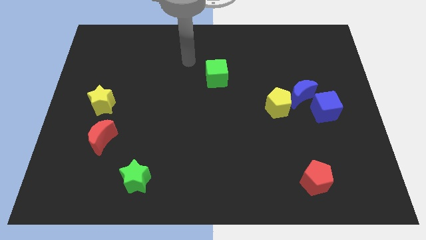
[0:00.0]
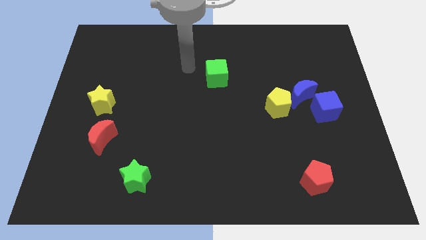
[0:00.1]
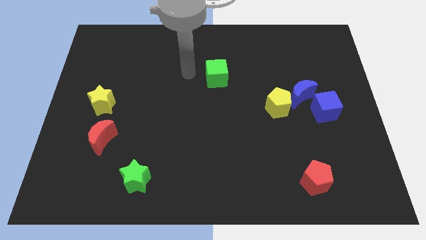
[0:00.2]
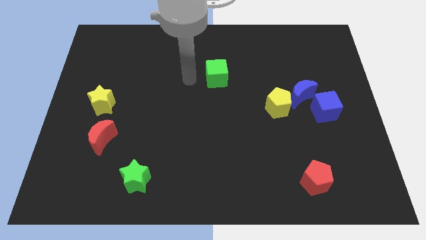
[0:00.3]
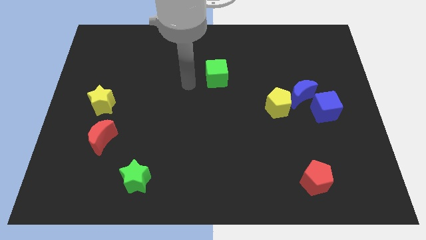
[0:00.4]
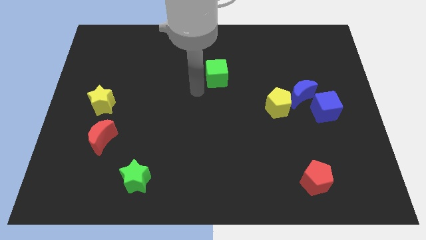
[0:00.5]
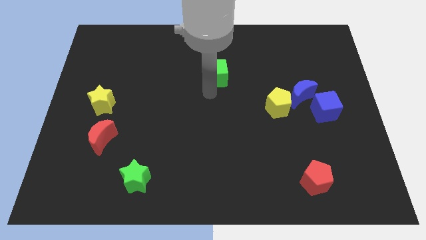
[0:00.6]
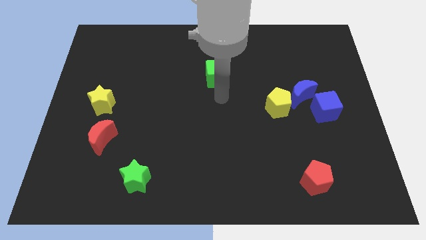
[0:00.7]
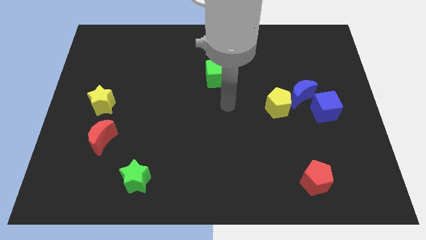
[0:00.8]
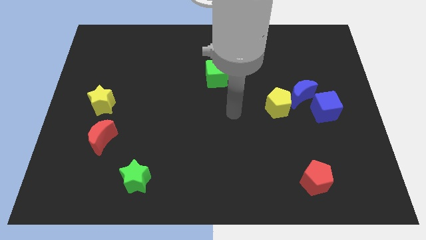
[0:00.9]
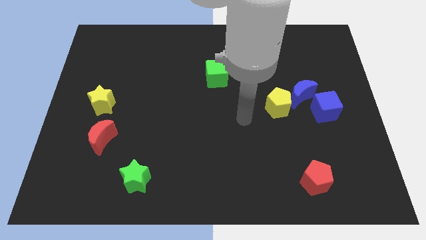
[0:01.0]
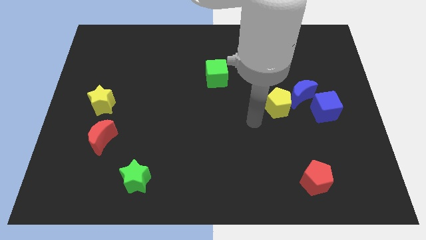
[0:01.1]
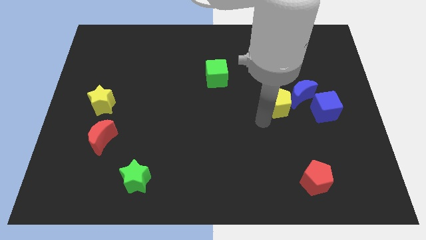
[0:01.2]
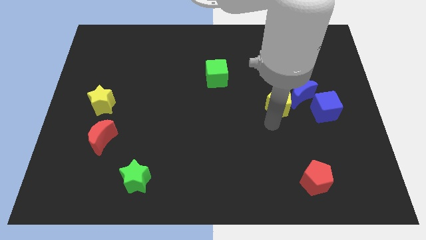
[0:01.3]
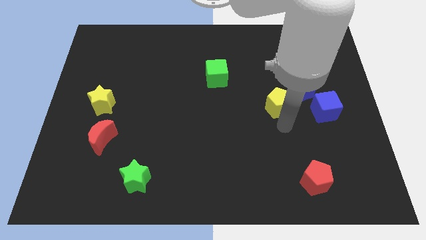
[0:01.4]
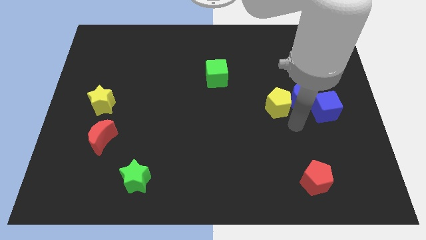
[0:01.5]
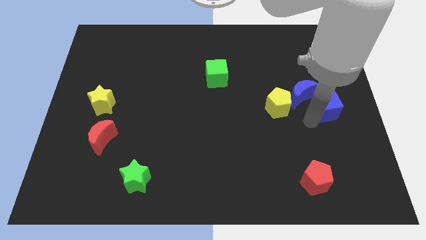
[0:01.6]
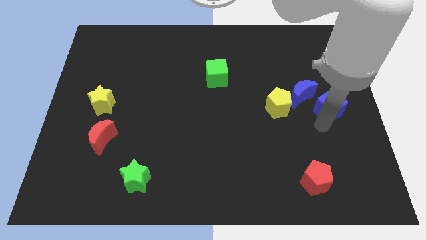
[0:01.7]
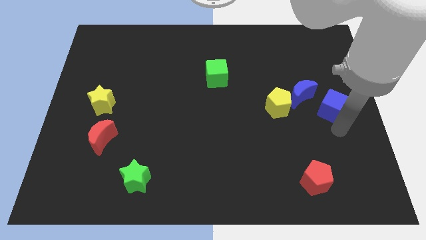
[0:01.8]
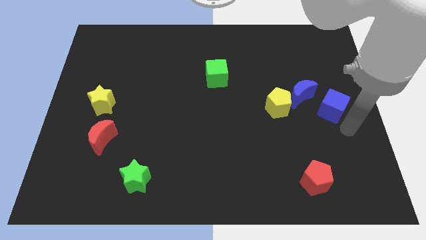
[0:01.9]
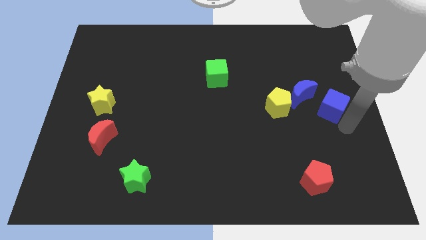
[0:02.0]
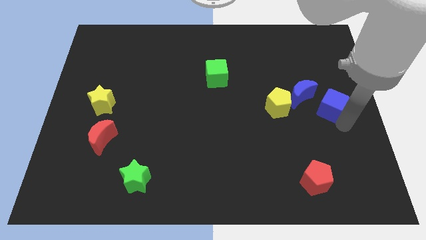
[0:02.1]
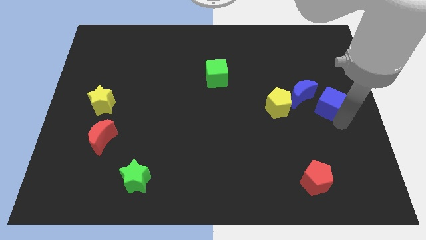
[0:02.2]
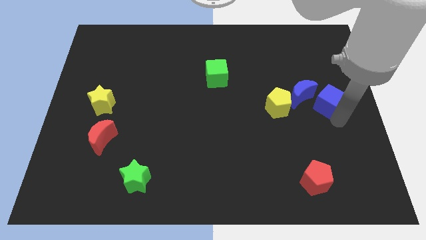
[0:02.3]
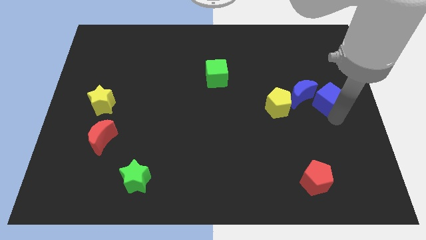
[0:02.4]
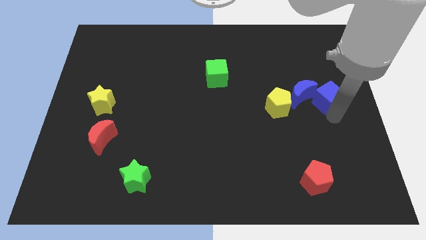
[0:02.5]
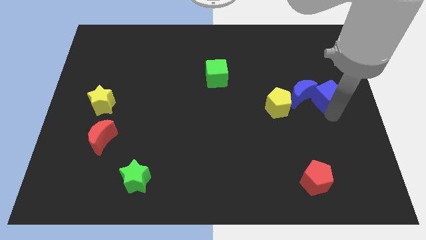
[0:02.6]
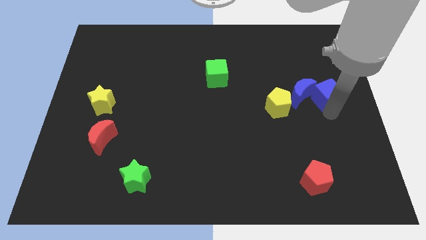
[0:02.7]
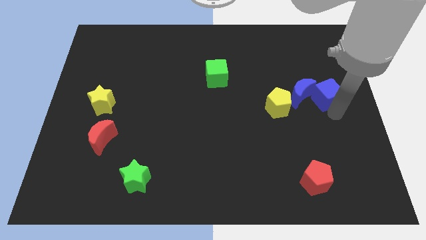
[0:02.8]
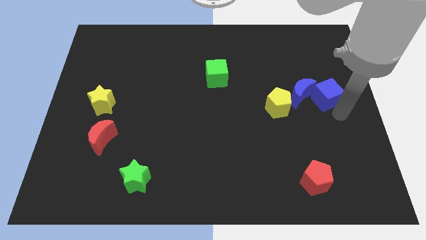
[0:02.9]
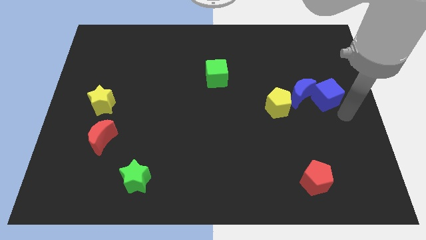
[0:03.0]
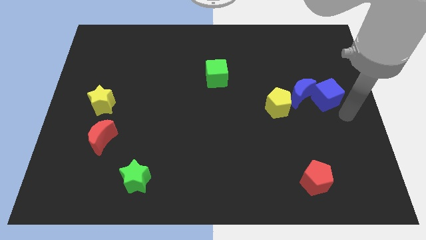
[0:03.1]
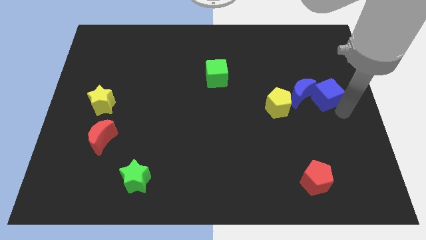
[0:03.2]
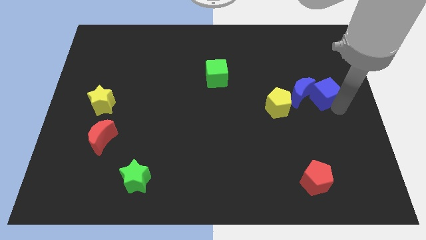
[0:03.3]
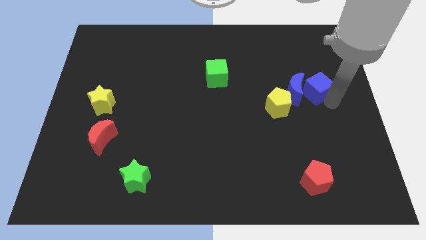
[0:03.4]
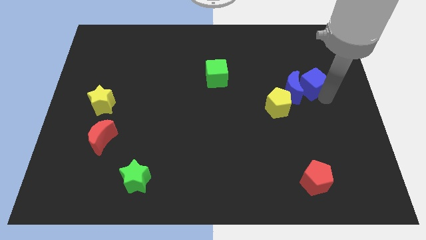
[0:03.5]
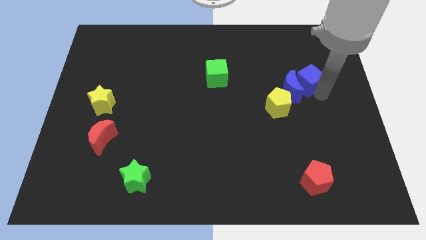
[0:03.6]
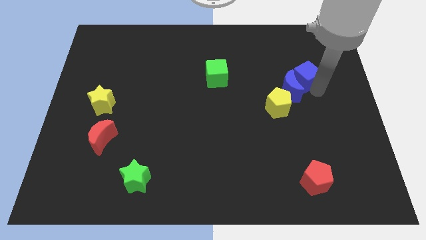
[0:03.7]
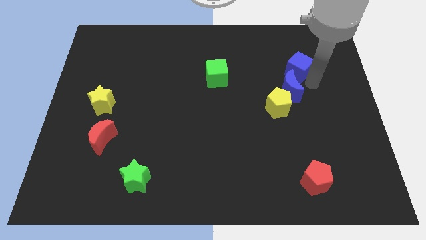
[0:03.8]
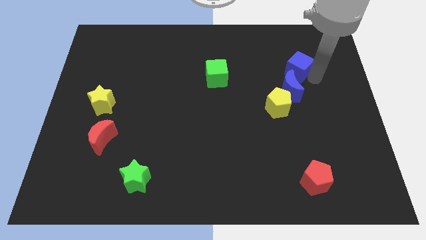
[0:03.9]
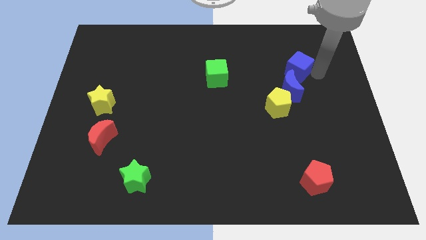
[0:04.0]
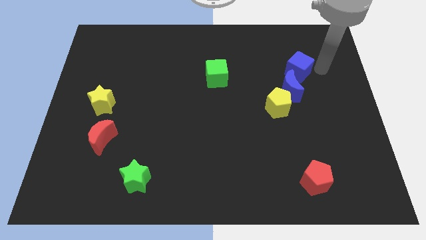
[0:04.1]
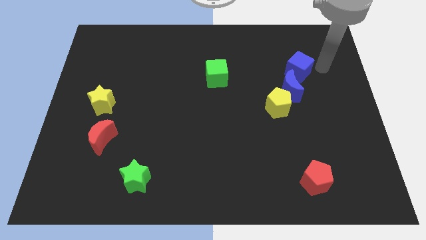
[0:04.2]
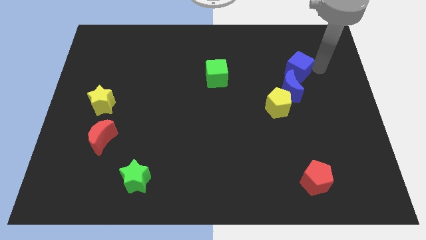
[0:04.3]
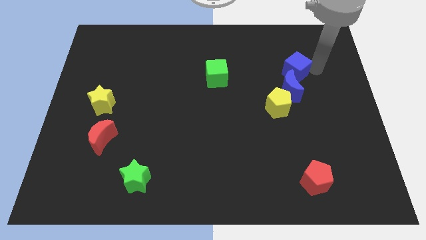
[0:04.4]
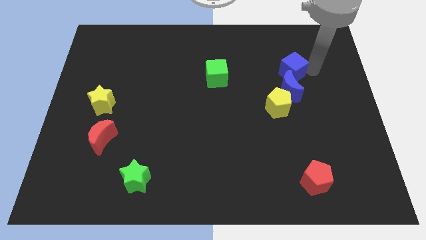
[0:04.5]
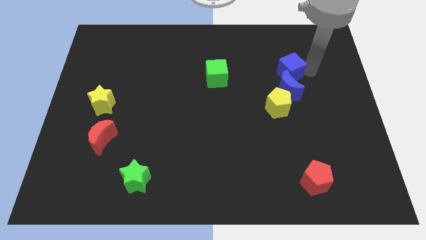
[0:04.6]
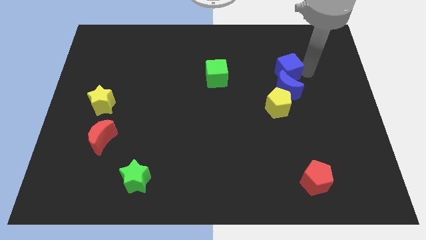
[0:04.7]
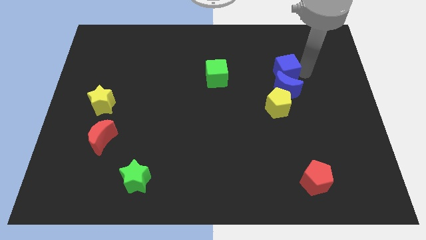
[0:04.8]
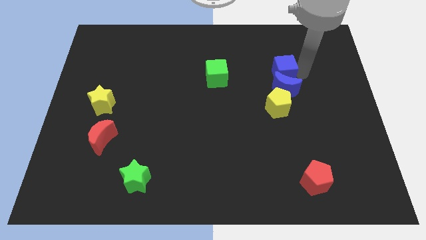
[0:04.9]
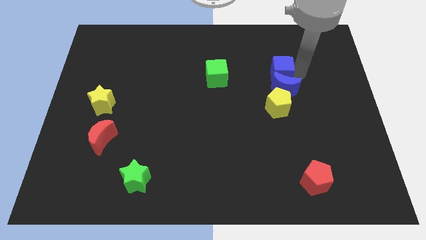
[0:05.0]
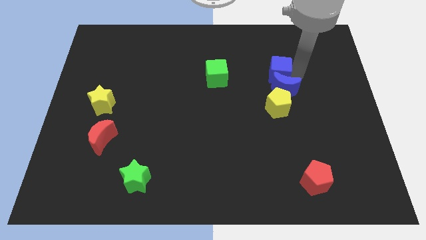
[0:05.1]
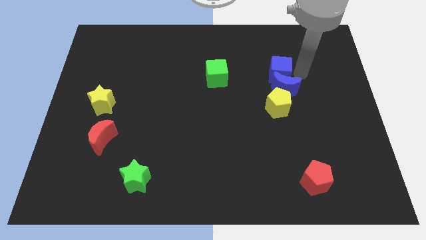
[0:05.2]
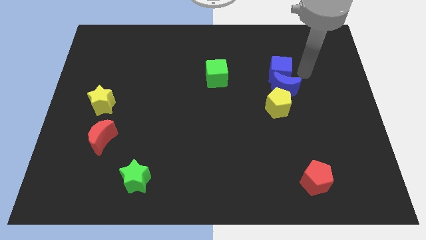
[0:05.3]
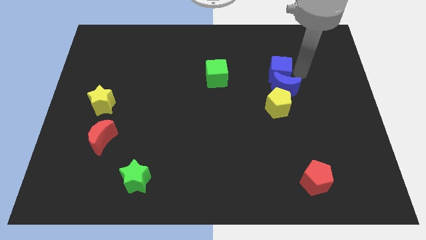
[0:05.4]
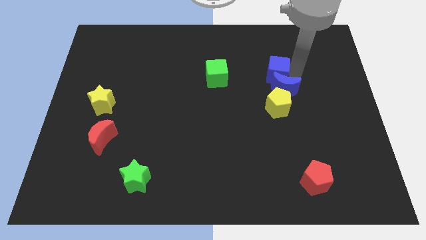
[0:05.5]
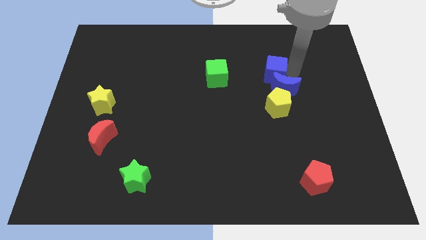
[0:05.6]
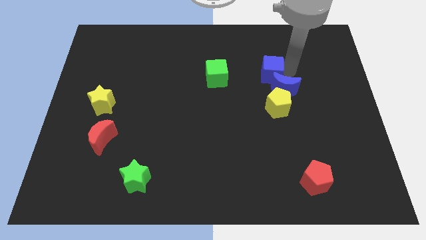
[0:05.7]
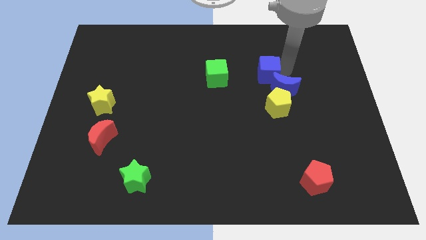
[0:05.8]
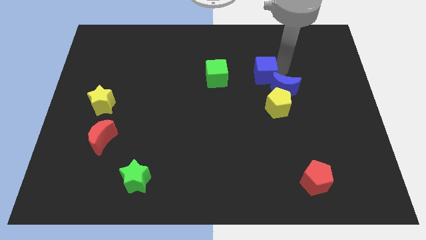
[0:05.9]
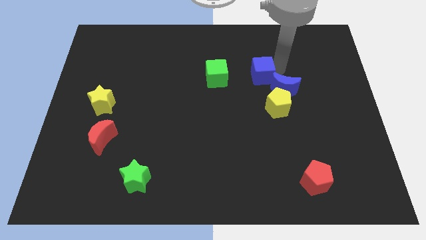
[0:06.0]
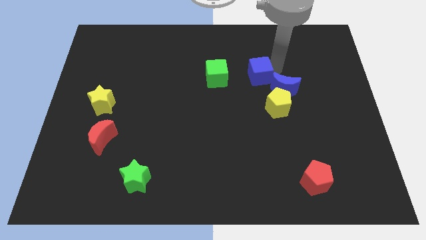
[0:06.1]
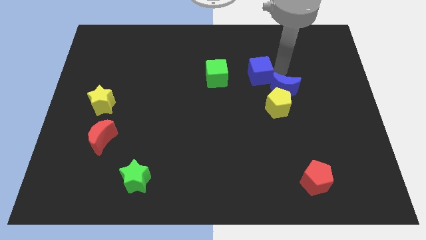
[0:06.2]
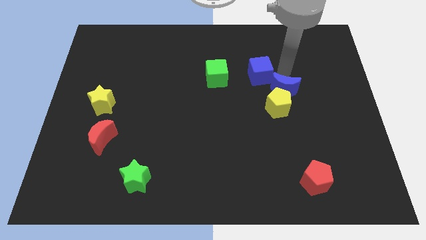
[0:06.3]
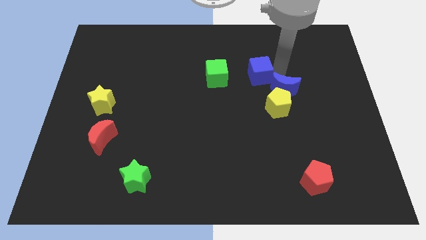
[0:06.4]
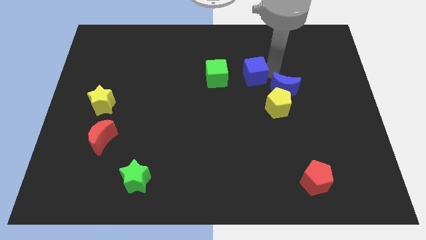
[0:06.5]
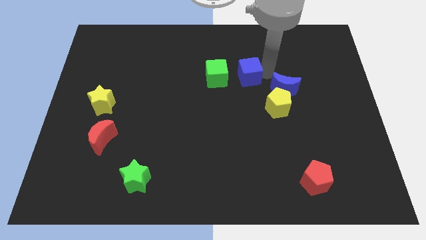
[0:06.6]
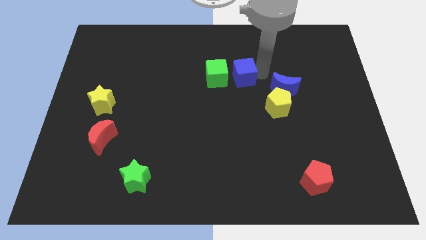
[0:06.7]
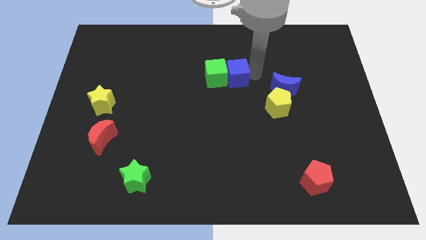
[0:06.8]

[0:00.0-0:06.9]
put the blue cube close to the green cube

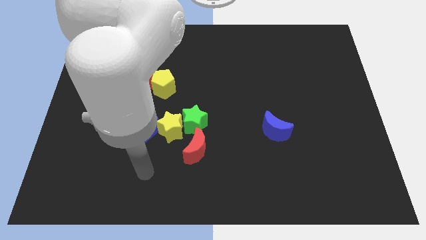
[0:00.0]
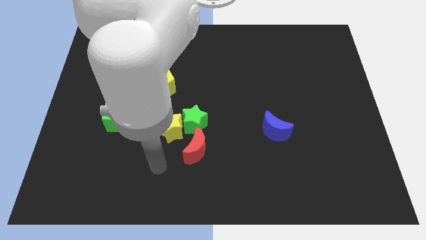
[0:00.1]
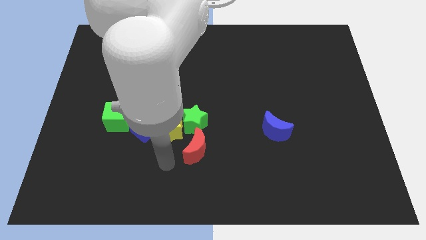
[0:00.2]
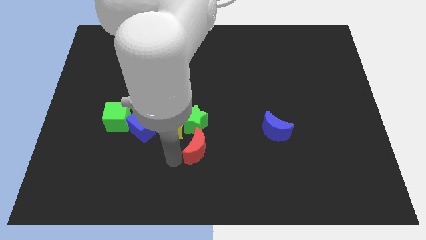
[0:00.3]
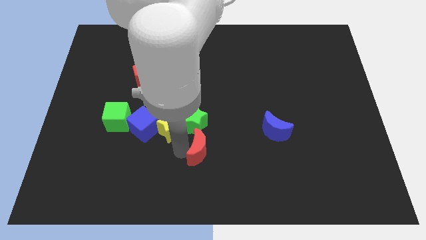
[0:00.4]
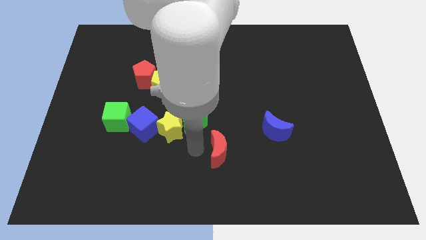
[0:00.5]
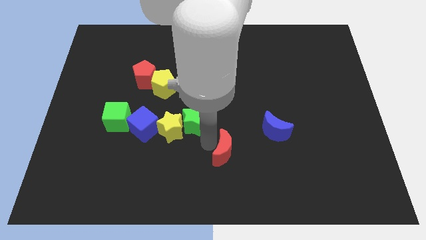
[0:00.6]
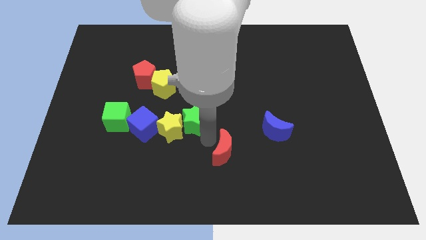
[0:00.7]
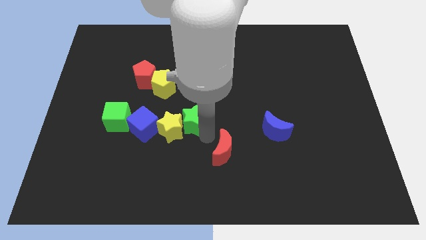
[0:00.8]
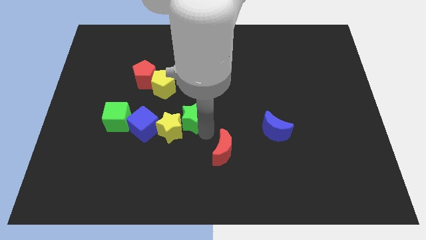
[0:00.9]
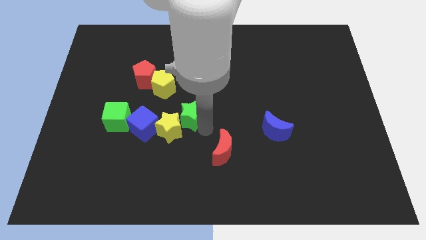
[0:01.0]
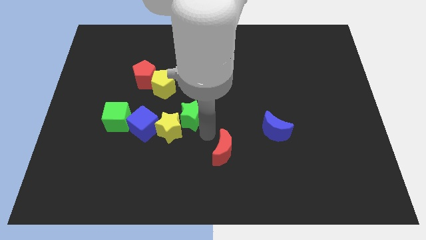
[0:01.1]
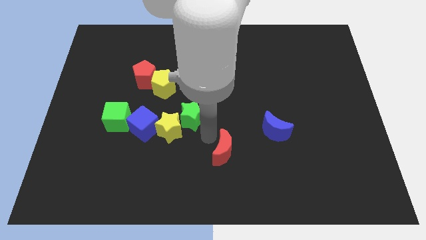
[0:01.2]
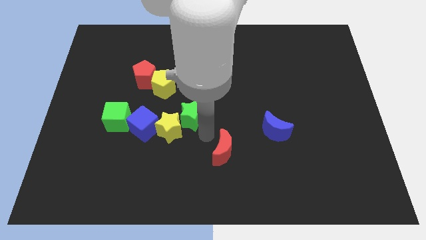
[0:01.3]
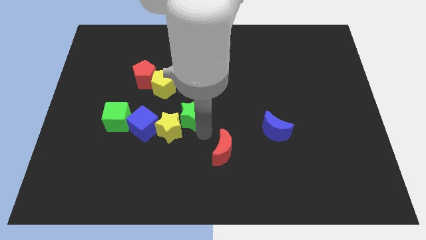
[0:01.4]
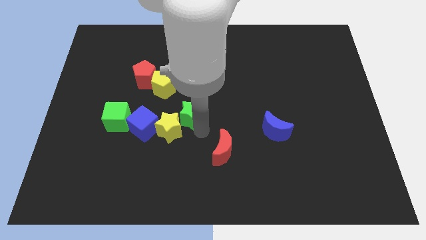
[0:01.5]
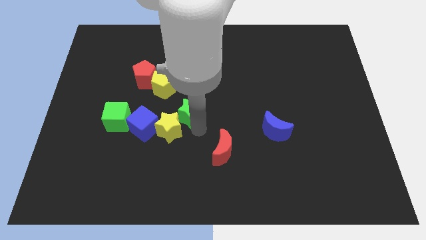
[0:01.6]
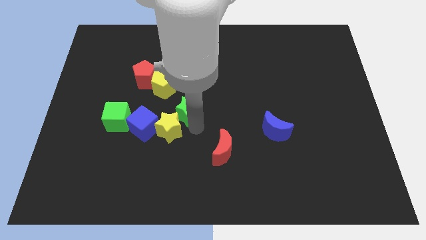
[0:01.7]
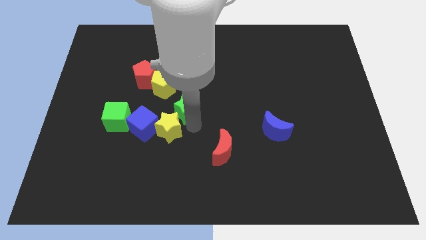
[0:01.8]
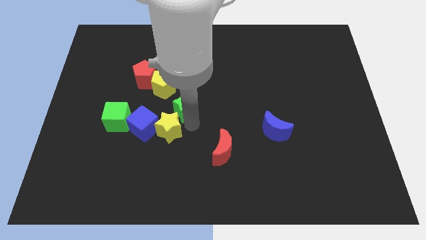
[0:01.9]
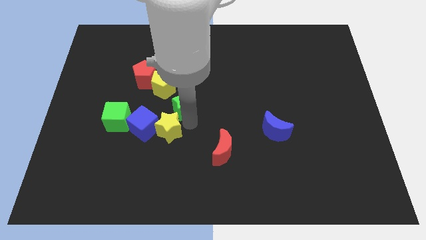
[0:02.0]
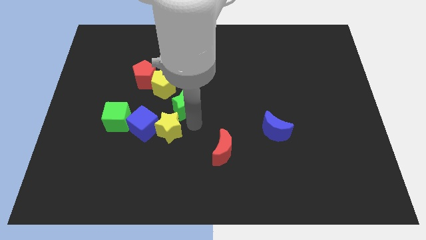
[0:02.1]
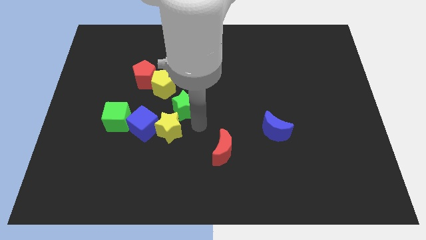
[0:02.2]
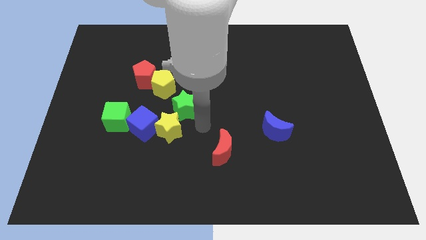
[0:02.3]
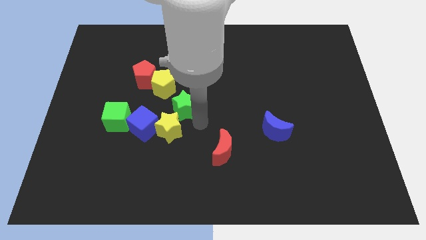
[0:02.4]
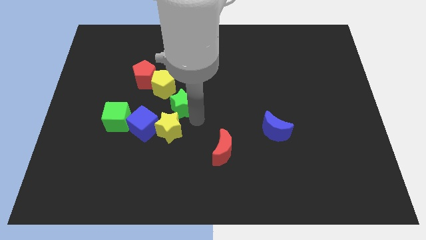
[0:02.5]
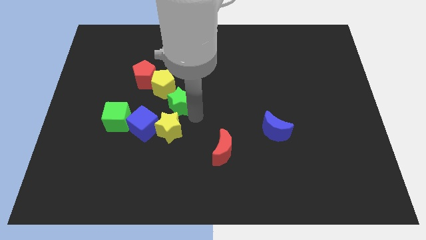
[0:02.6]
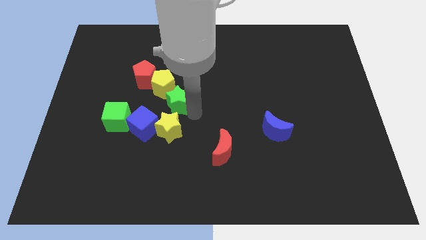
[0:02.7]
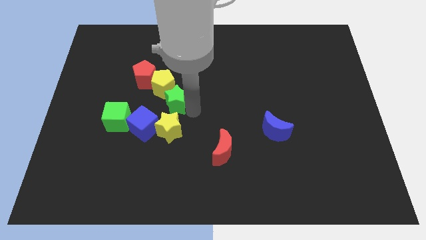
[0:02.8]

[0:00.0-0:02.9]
move the green star close to the yellow pentagon
